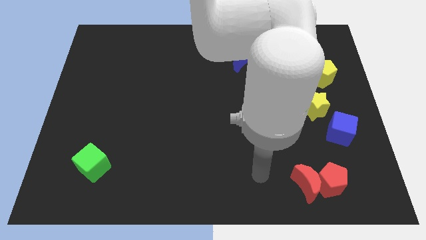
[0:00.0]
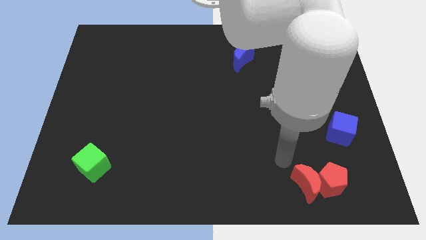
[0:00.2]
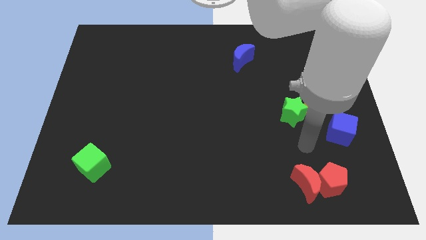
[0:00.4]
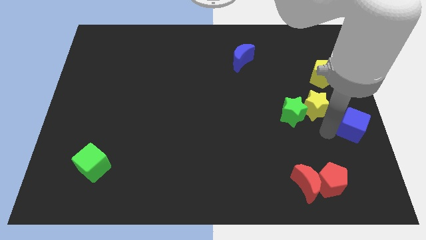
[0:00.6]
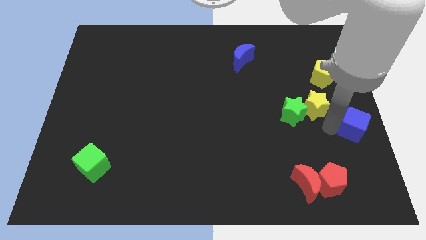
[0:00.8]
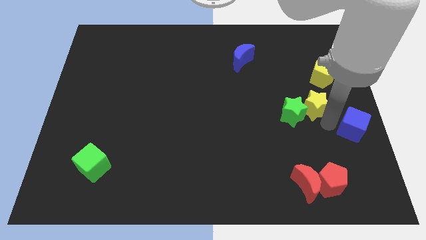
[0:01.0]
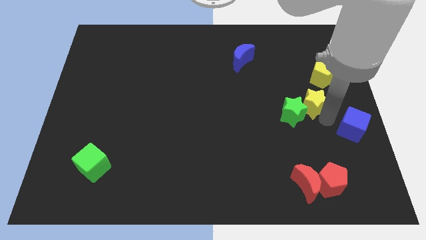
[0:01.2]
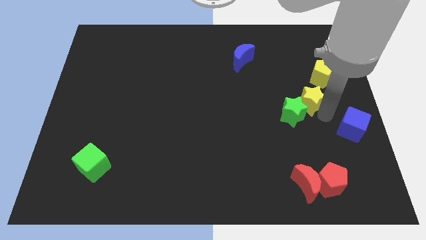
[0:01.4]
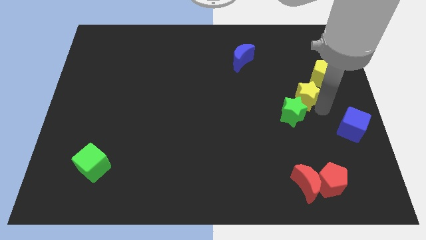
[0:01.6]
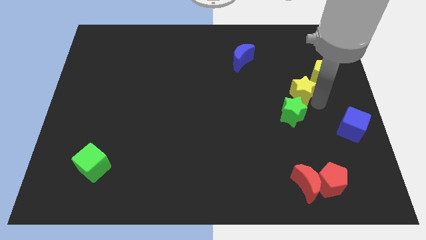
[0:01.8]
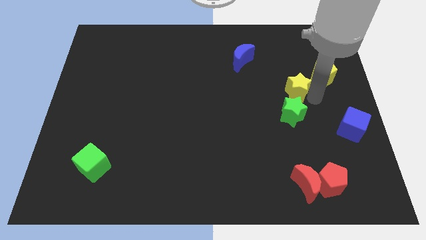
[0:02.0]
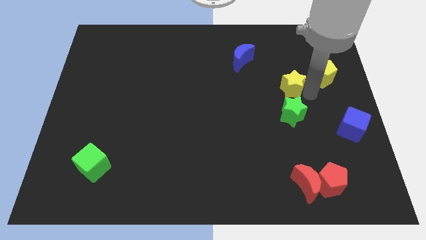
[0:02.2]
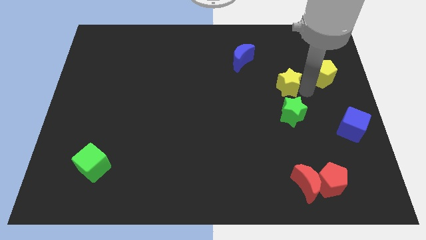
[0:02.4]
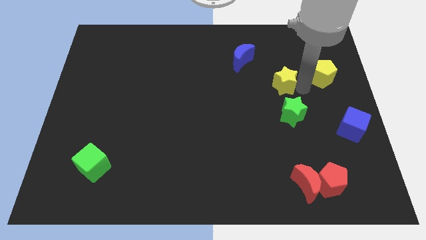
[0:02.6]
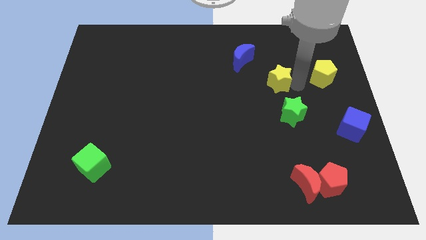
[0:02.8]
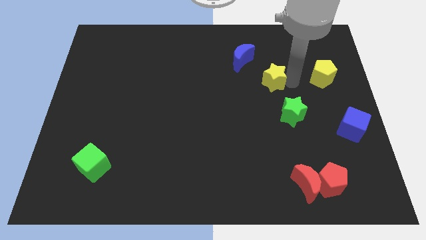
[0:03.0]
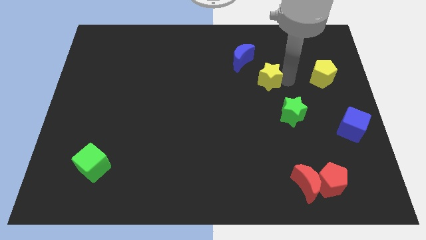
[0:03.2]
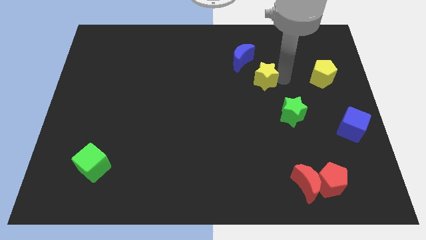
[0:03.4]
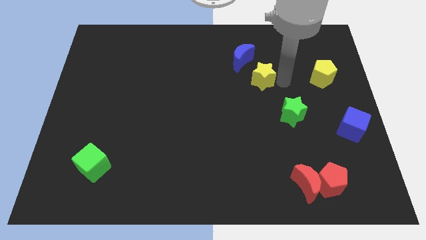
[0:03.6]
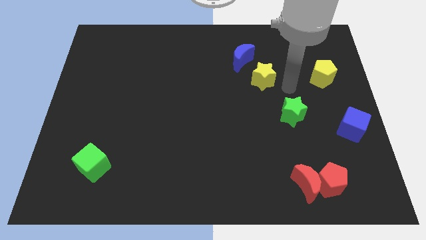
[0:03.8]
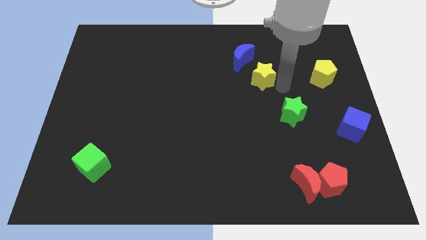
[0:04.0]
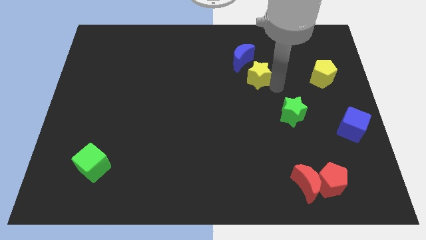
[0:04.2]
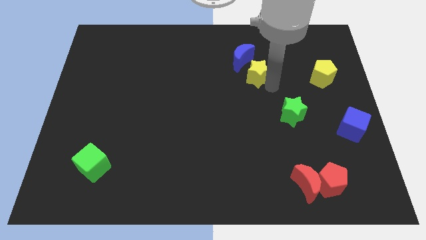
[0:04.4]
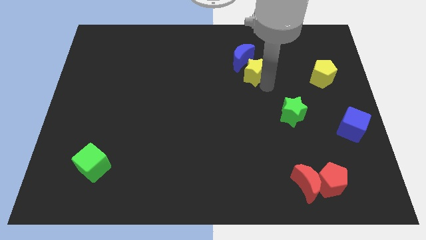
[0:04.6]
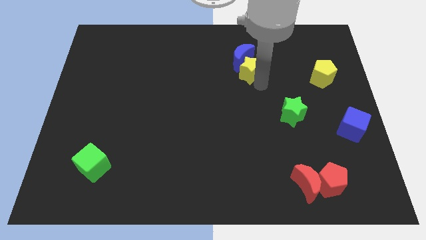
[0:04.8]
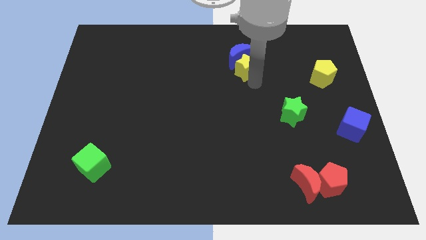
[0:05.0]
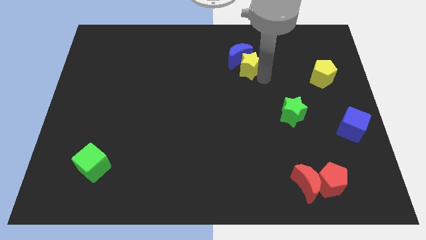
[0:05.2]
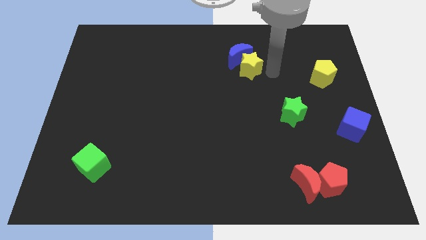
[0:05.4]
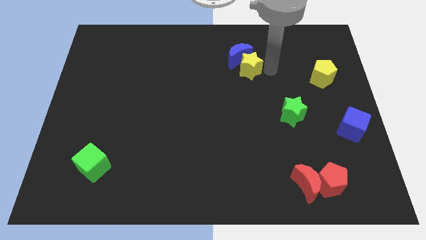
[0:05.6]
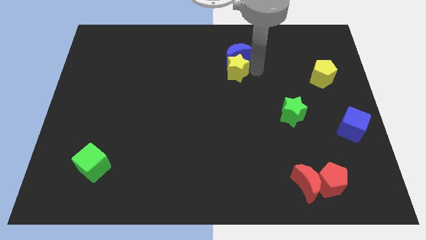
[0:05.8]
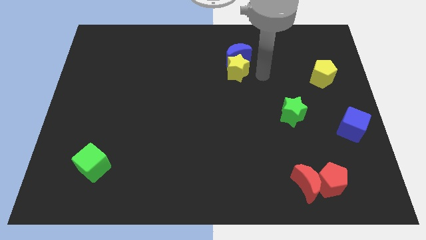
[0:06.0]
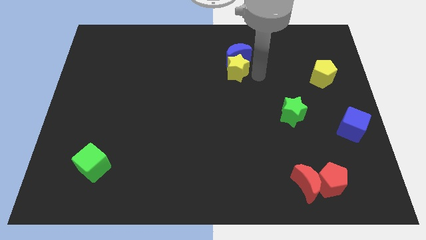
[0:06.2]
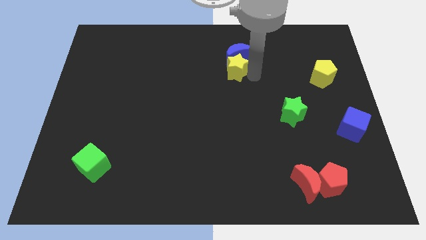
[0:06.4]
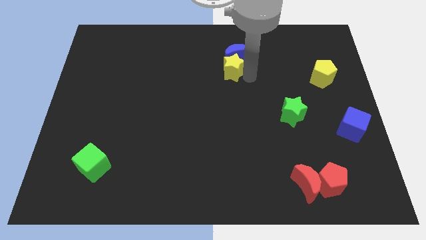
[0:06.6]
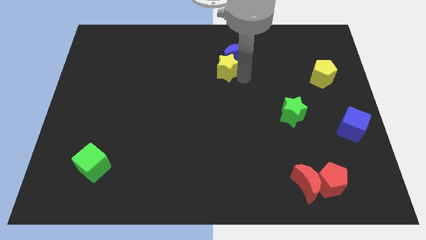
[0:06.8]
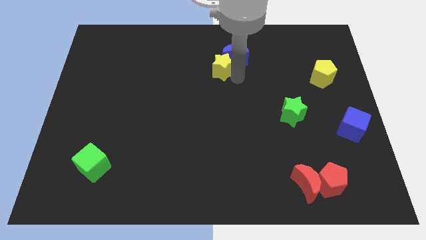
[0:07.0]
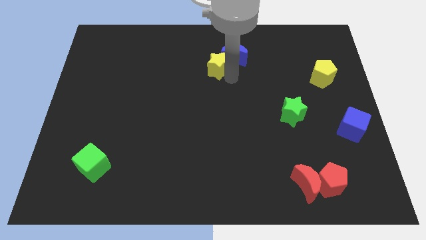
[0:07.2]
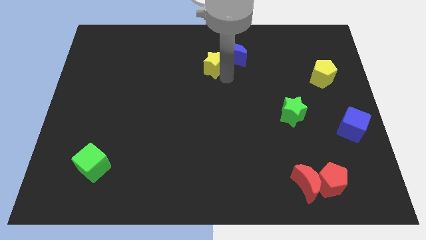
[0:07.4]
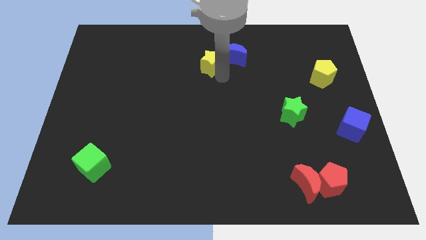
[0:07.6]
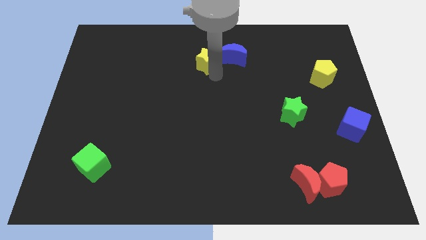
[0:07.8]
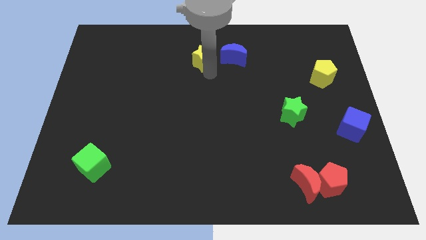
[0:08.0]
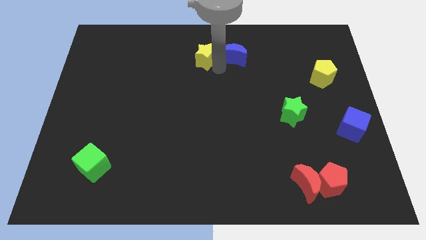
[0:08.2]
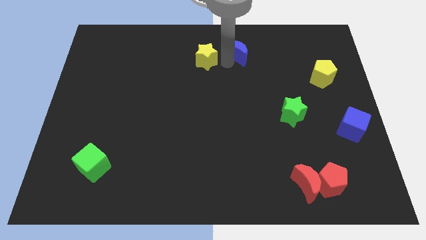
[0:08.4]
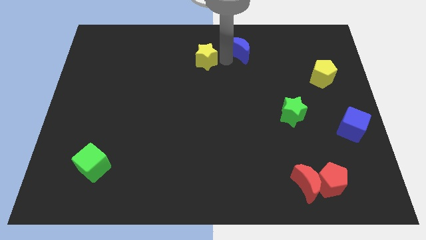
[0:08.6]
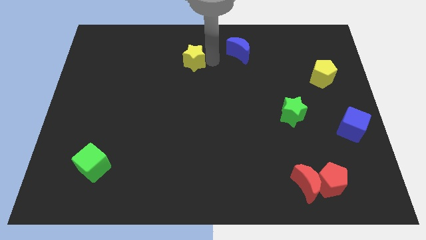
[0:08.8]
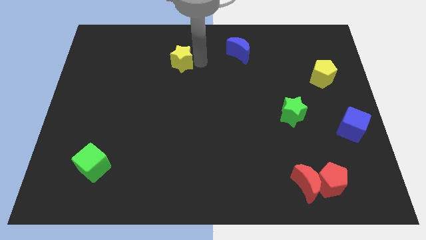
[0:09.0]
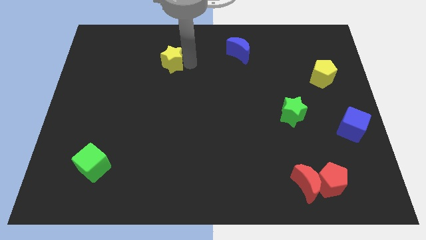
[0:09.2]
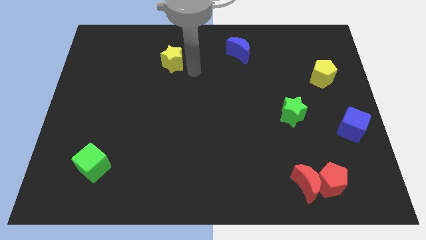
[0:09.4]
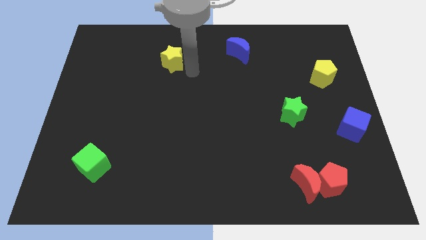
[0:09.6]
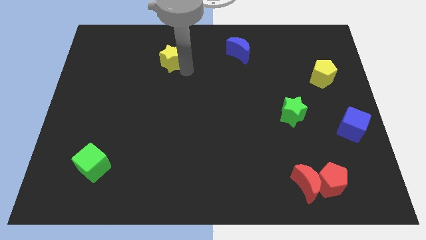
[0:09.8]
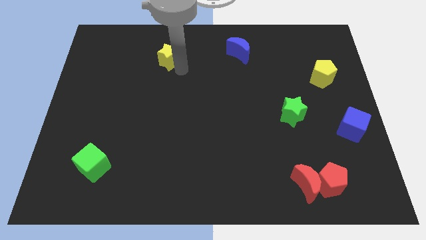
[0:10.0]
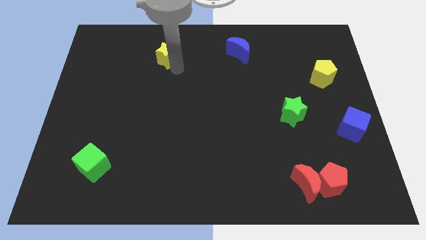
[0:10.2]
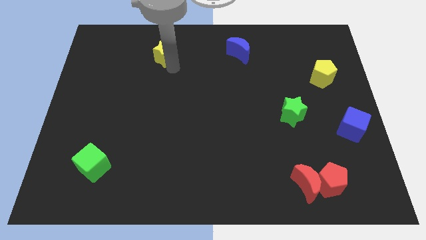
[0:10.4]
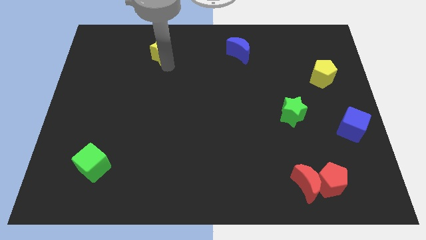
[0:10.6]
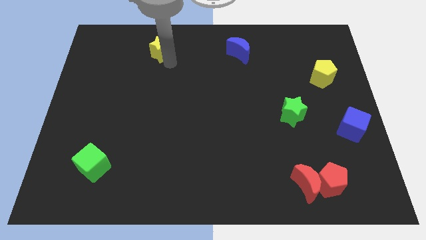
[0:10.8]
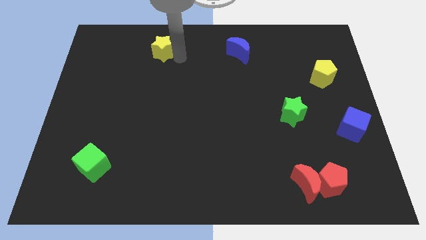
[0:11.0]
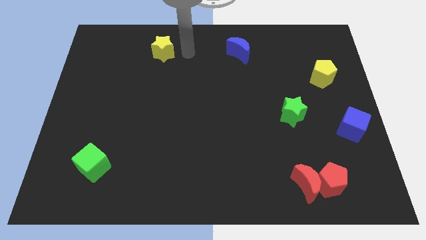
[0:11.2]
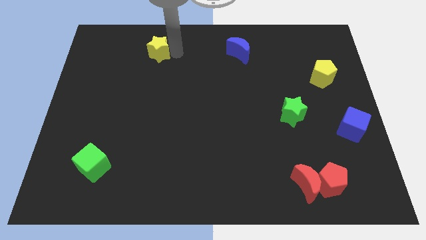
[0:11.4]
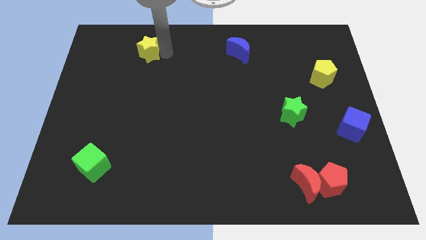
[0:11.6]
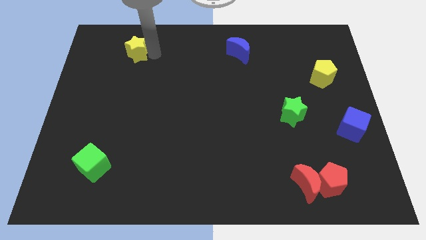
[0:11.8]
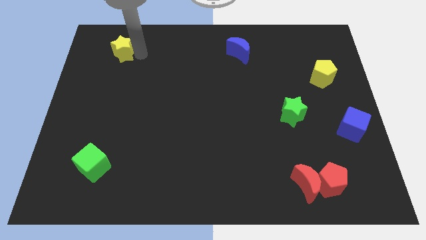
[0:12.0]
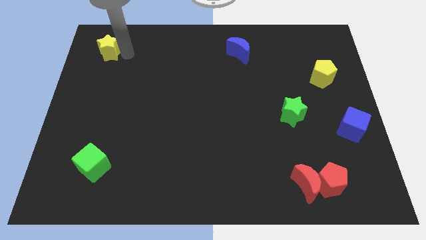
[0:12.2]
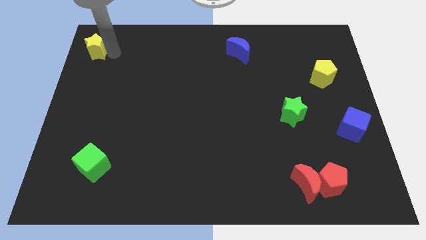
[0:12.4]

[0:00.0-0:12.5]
put the yellow star to the top left corner
